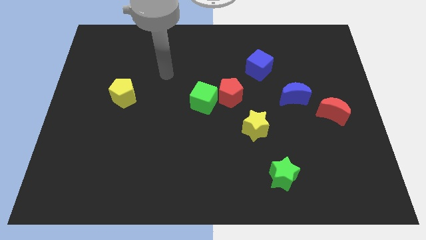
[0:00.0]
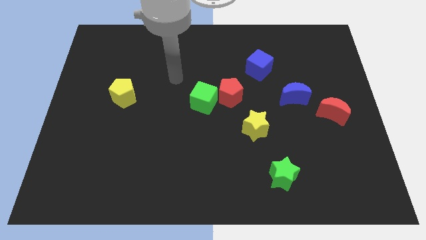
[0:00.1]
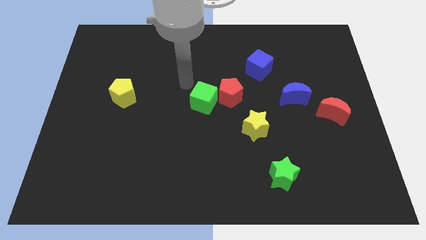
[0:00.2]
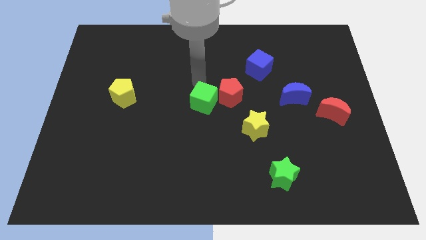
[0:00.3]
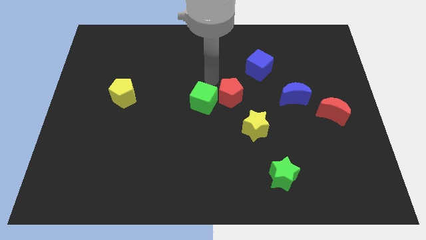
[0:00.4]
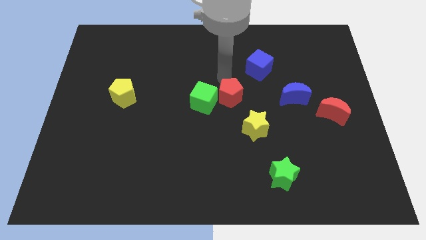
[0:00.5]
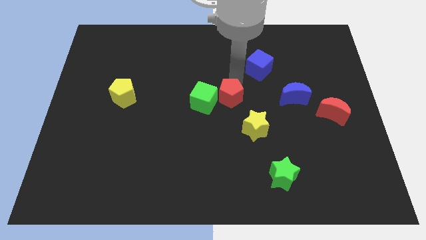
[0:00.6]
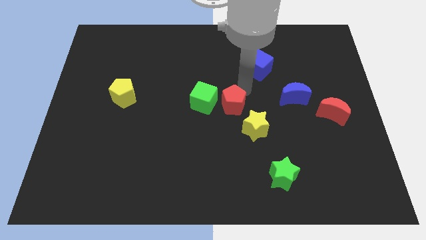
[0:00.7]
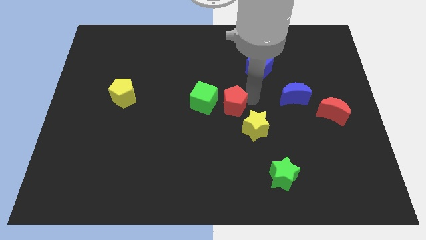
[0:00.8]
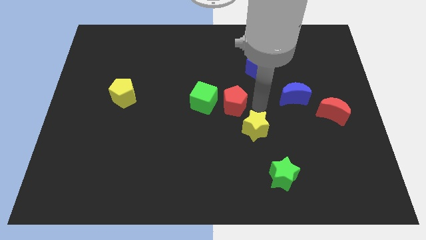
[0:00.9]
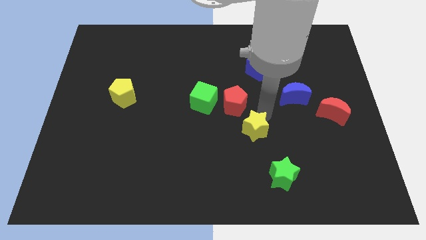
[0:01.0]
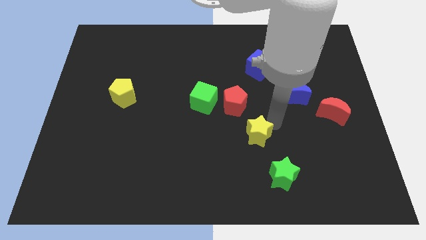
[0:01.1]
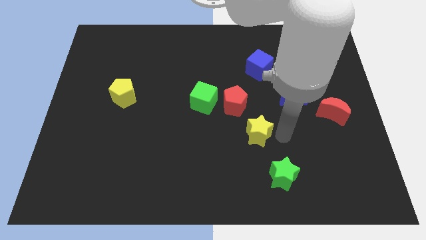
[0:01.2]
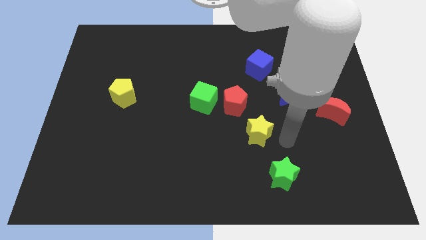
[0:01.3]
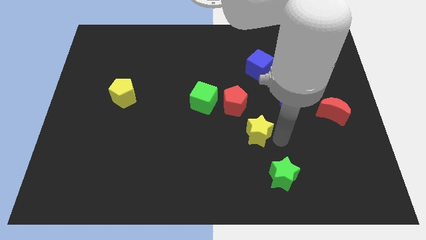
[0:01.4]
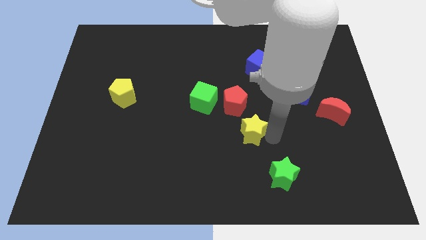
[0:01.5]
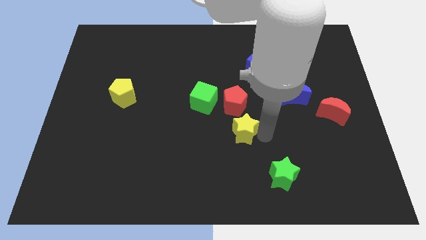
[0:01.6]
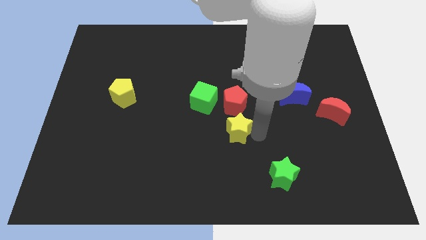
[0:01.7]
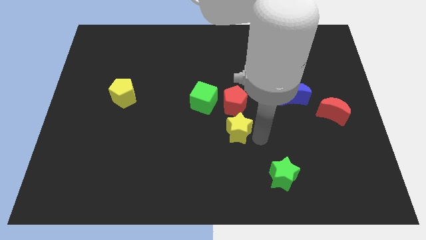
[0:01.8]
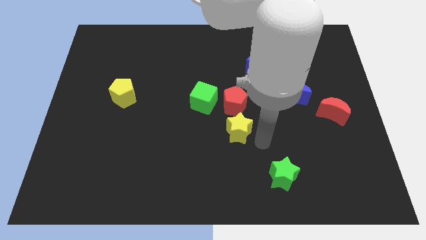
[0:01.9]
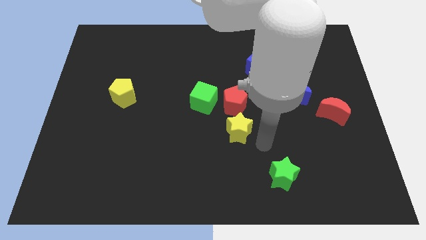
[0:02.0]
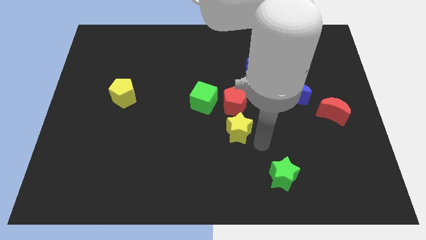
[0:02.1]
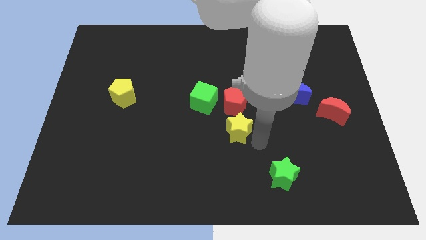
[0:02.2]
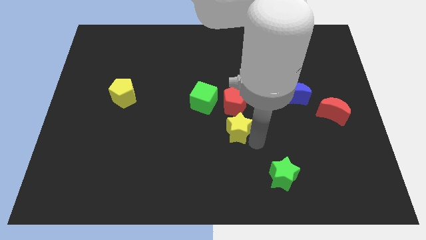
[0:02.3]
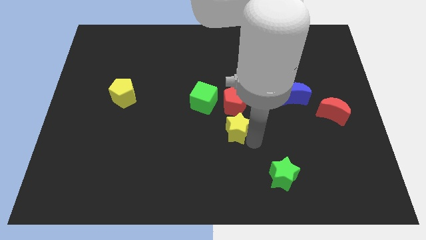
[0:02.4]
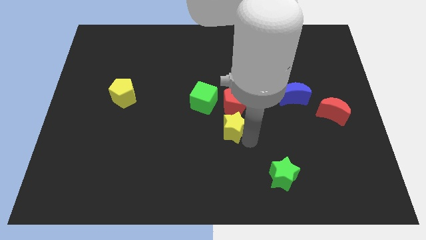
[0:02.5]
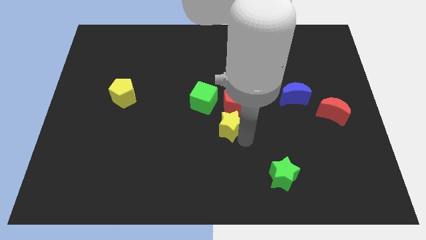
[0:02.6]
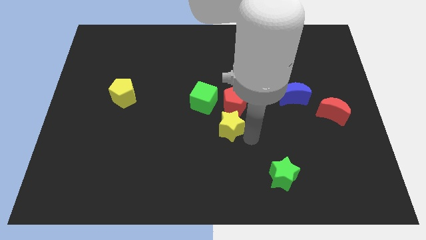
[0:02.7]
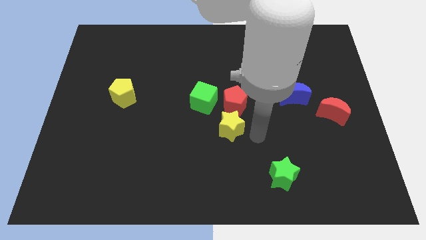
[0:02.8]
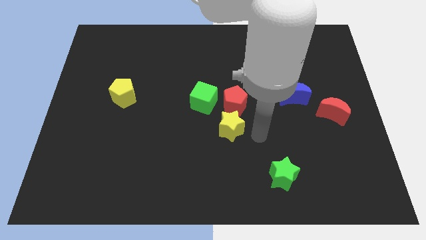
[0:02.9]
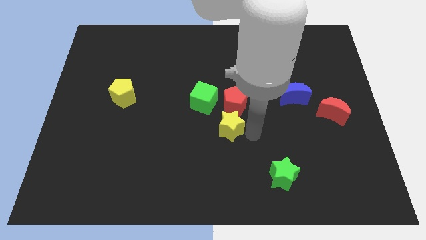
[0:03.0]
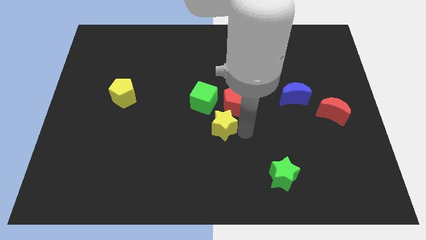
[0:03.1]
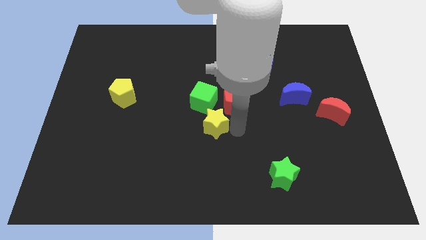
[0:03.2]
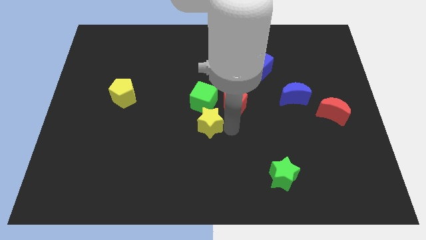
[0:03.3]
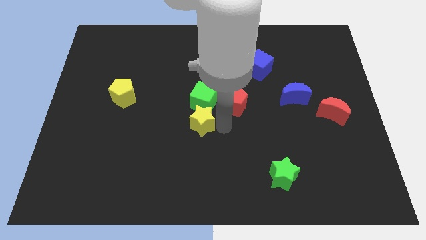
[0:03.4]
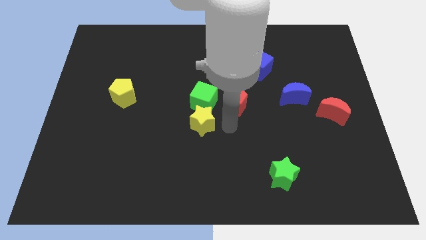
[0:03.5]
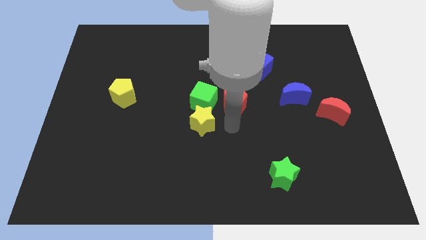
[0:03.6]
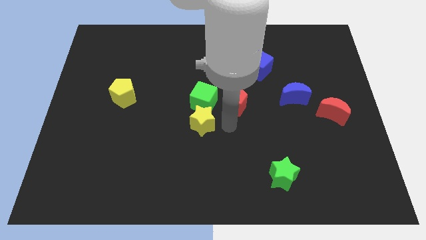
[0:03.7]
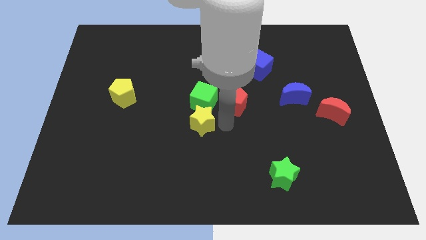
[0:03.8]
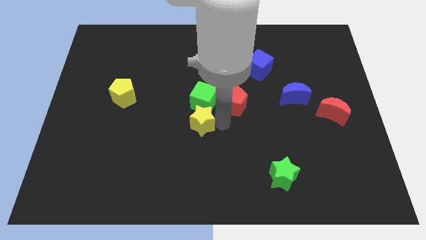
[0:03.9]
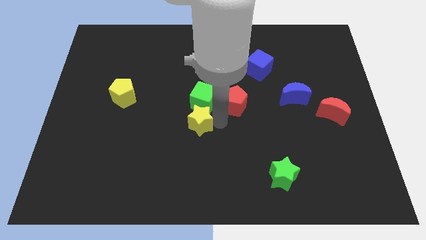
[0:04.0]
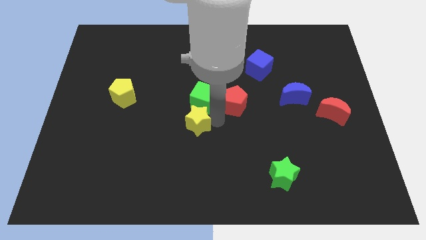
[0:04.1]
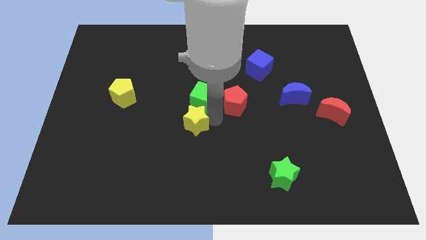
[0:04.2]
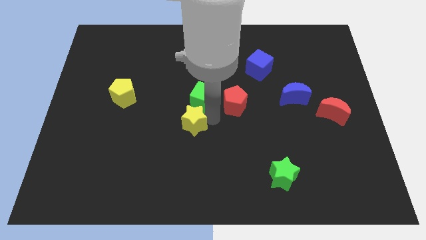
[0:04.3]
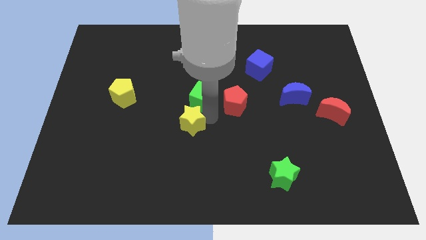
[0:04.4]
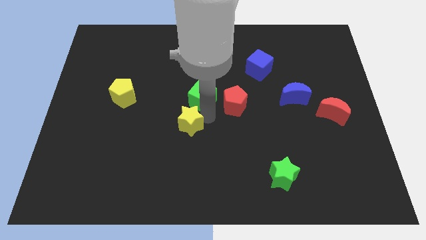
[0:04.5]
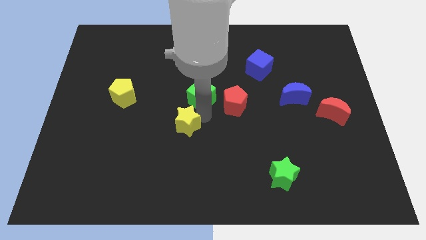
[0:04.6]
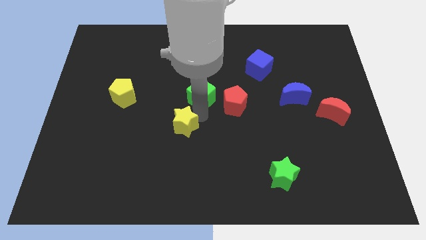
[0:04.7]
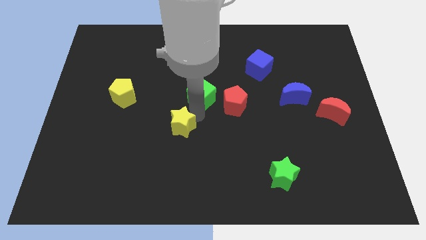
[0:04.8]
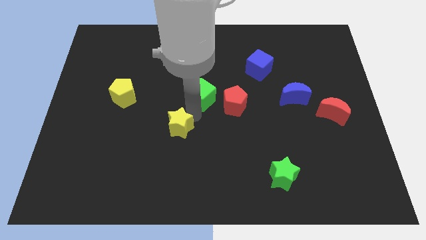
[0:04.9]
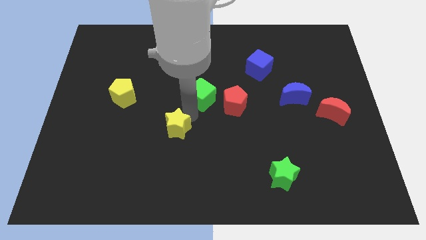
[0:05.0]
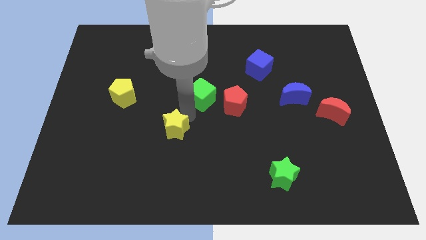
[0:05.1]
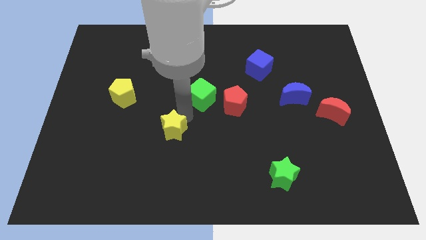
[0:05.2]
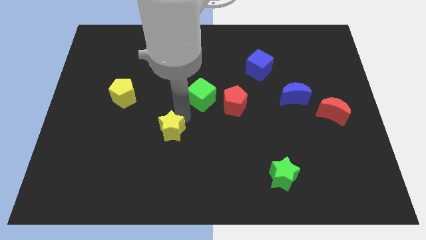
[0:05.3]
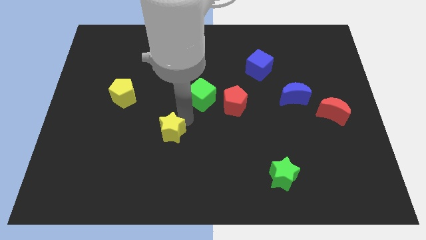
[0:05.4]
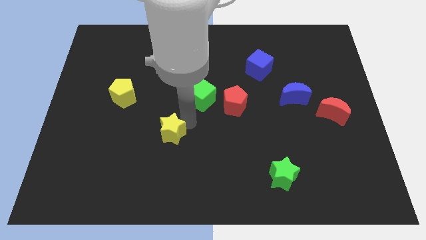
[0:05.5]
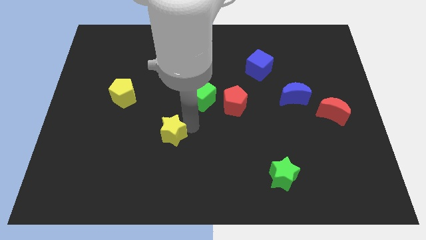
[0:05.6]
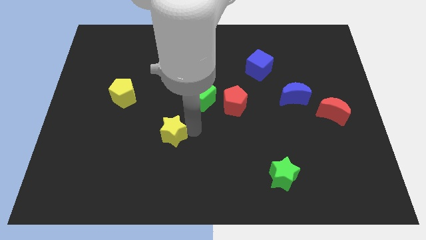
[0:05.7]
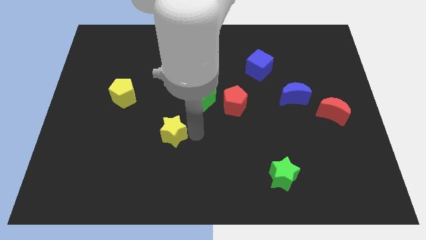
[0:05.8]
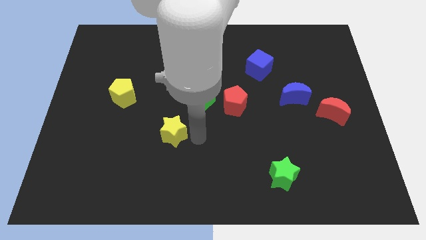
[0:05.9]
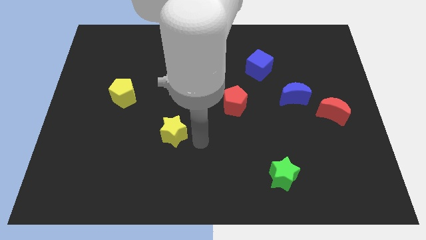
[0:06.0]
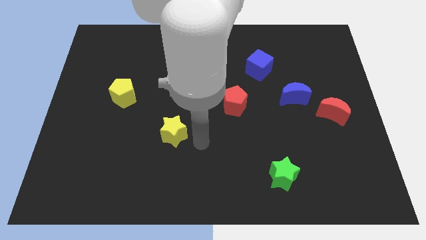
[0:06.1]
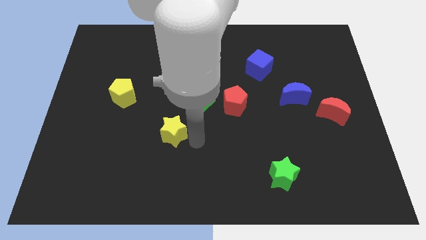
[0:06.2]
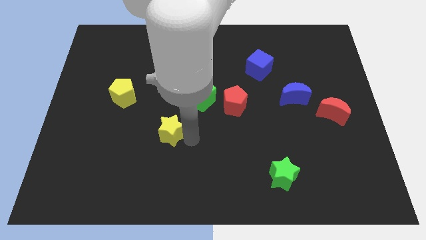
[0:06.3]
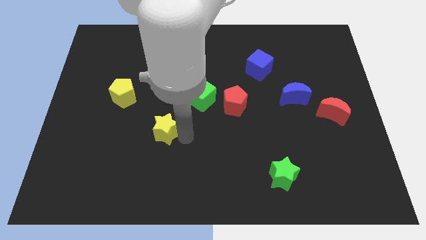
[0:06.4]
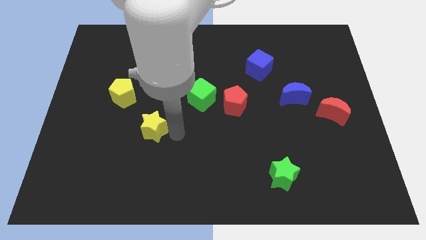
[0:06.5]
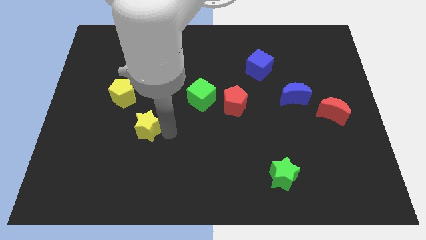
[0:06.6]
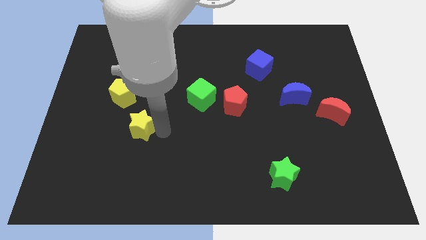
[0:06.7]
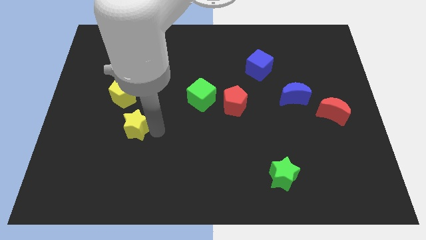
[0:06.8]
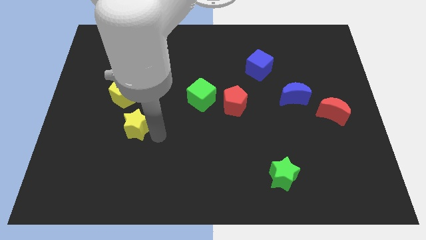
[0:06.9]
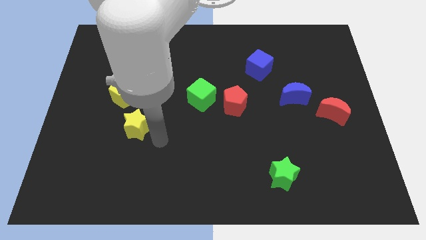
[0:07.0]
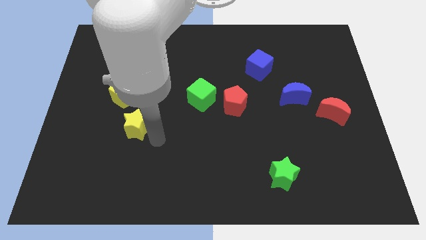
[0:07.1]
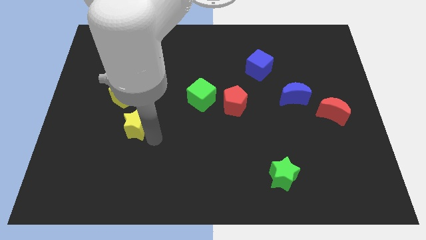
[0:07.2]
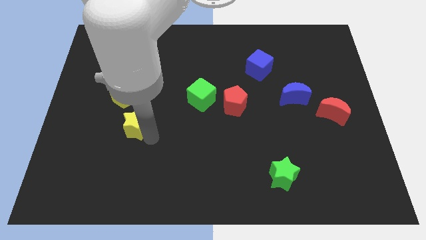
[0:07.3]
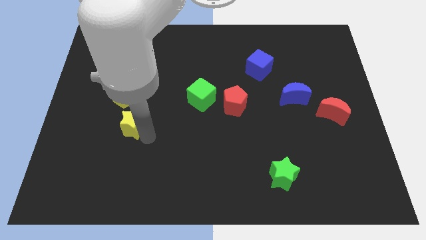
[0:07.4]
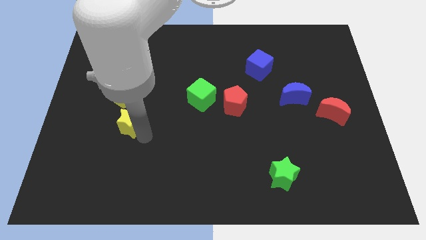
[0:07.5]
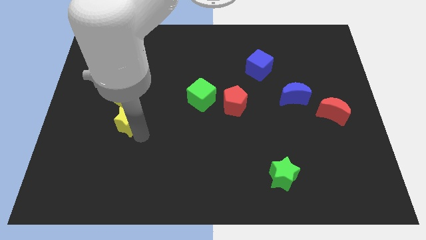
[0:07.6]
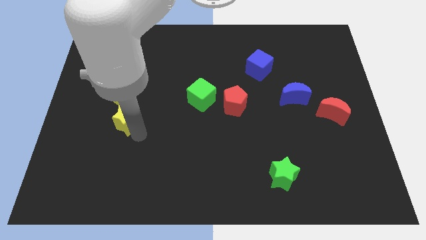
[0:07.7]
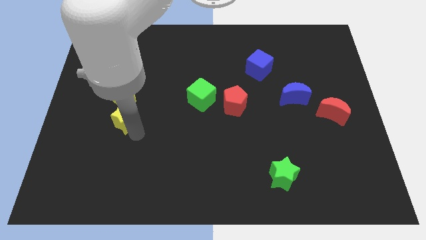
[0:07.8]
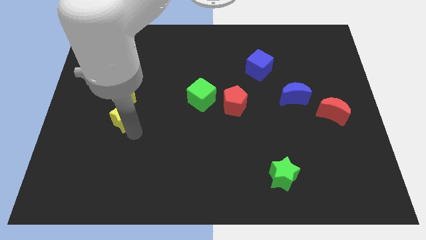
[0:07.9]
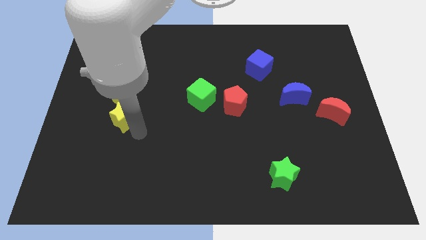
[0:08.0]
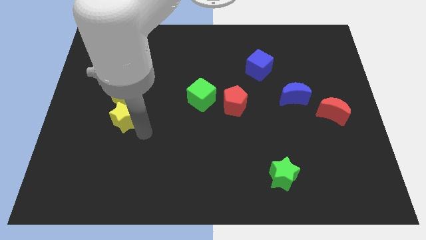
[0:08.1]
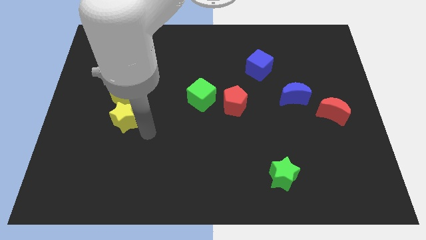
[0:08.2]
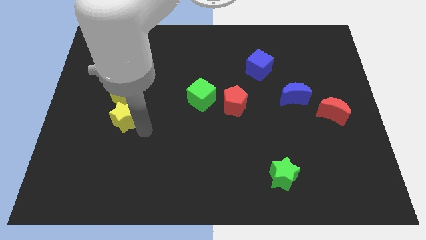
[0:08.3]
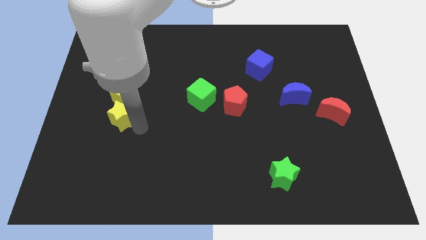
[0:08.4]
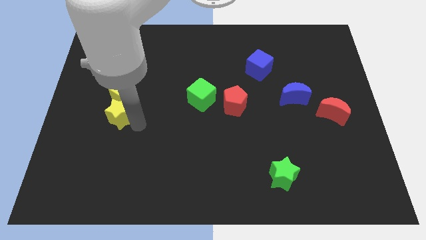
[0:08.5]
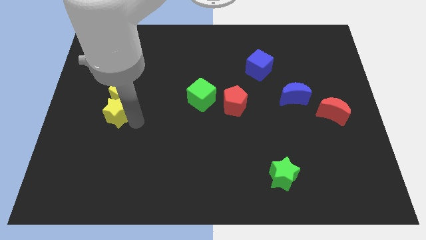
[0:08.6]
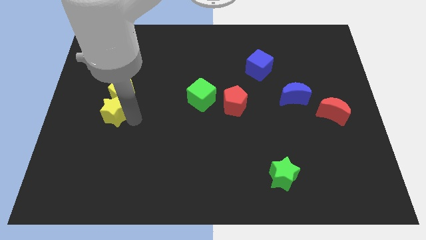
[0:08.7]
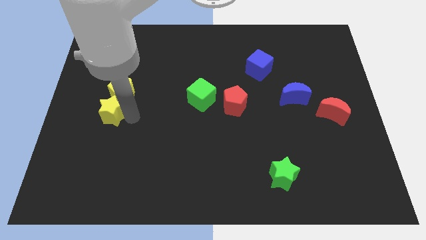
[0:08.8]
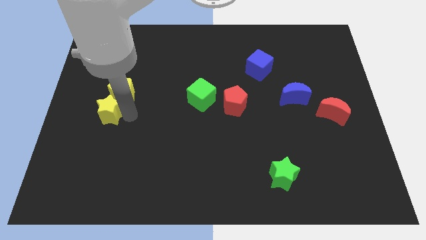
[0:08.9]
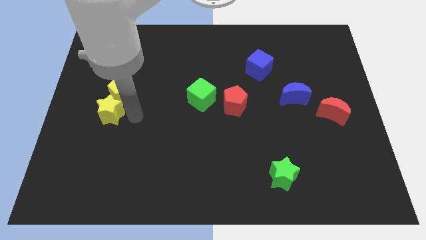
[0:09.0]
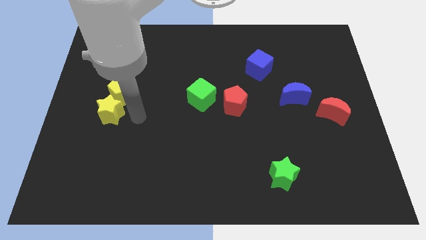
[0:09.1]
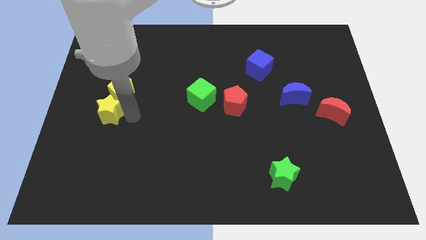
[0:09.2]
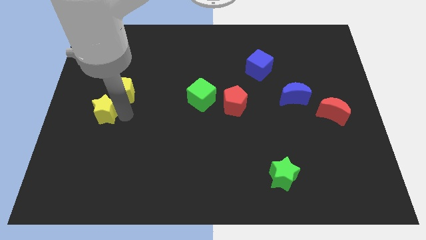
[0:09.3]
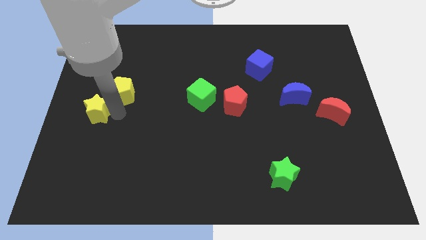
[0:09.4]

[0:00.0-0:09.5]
put the yellow star to the left side of the board
